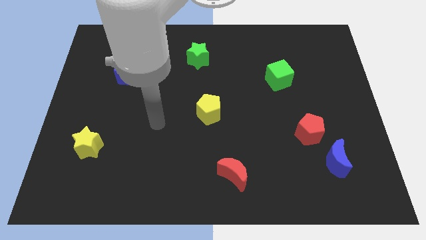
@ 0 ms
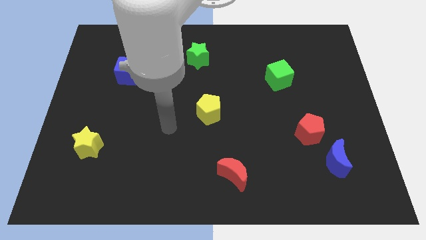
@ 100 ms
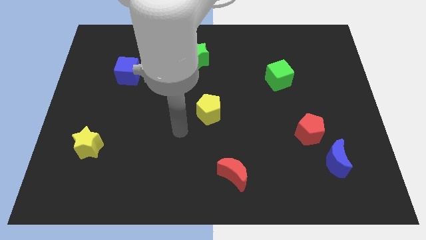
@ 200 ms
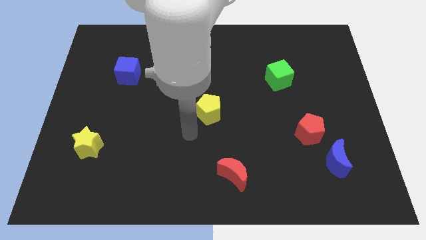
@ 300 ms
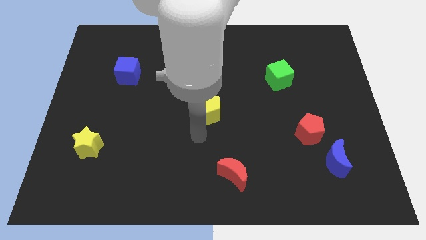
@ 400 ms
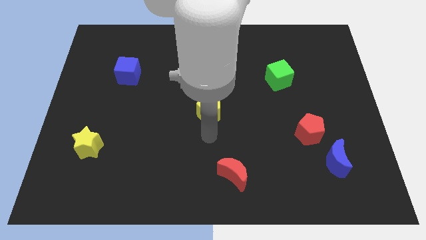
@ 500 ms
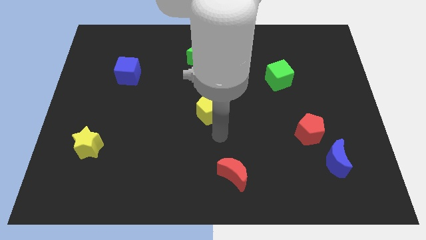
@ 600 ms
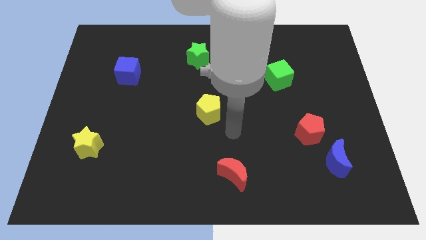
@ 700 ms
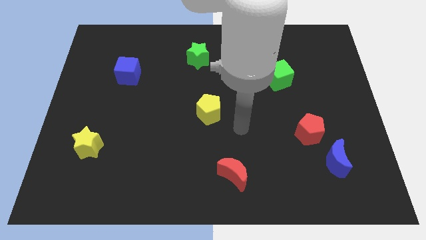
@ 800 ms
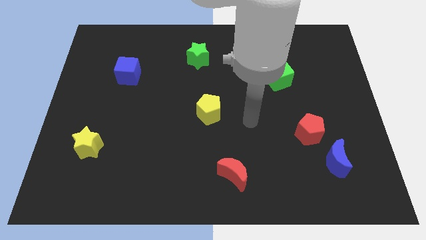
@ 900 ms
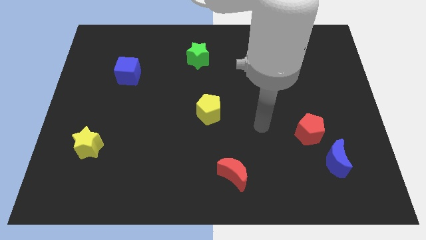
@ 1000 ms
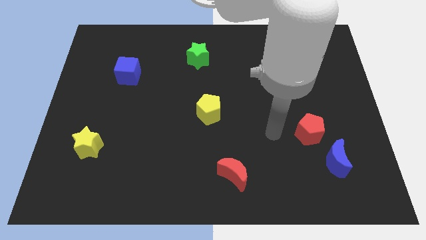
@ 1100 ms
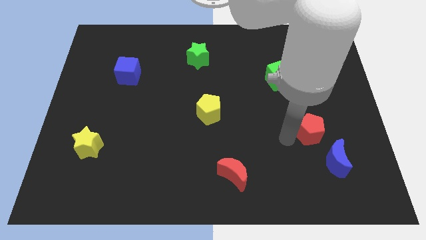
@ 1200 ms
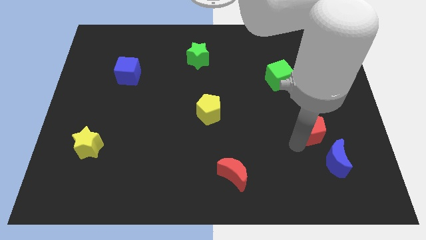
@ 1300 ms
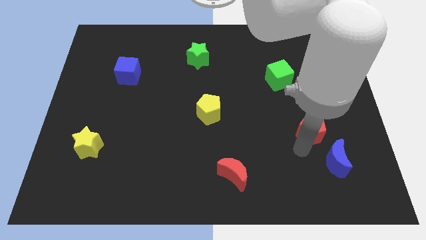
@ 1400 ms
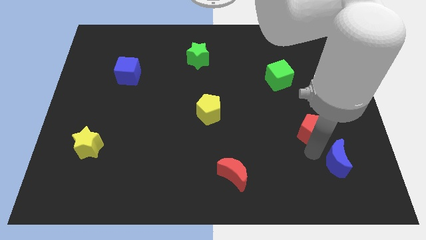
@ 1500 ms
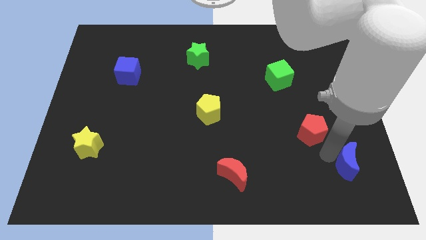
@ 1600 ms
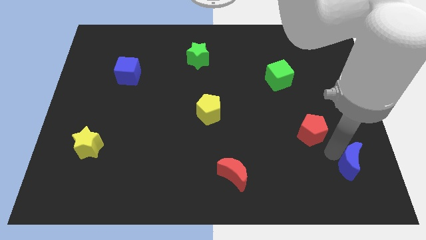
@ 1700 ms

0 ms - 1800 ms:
move the red pentagon away from the blue moon

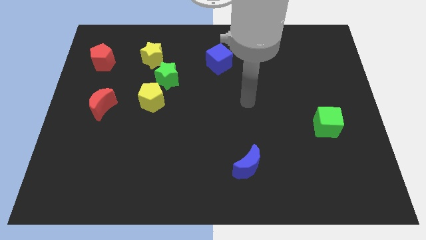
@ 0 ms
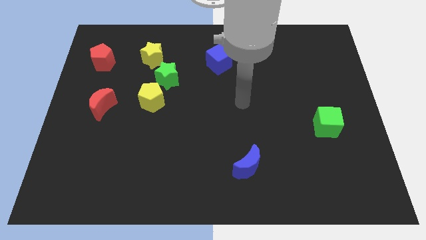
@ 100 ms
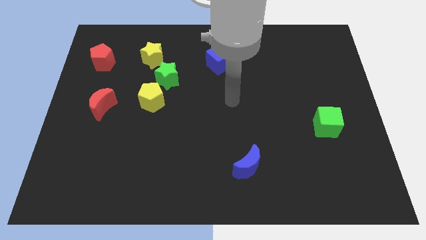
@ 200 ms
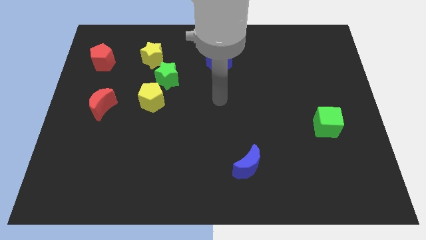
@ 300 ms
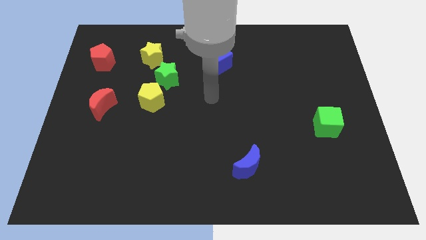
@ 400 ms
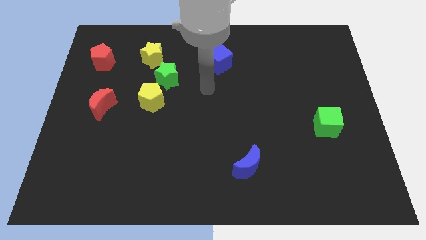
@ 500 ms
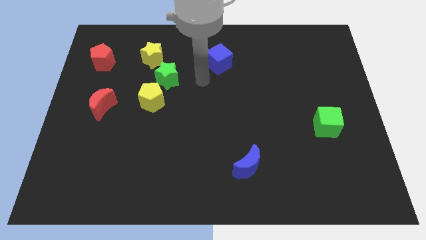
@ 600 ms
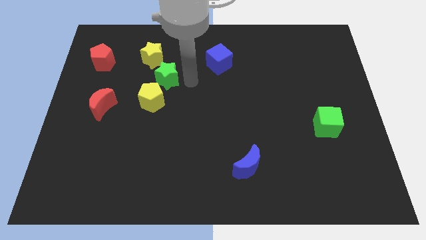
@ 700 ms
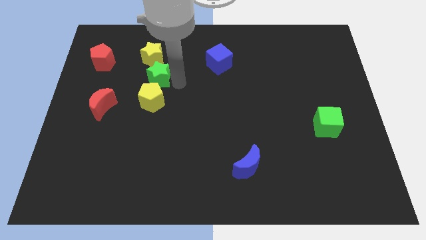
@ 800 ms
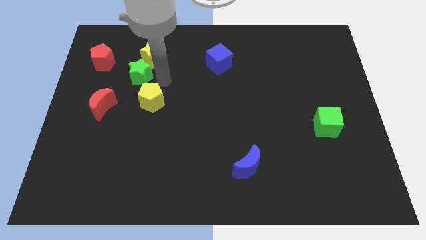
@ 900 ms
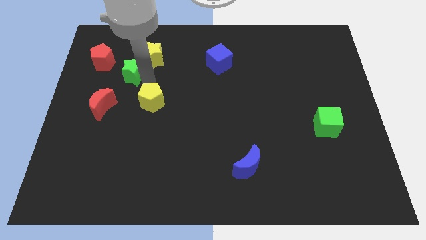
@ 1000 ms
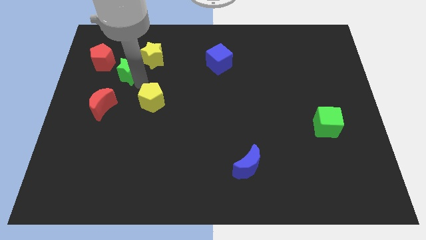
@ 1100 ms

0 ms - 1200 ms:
pull the yellow pentagon apart from the green star

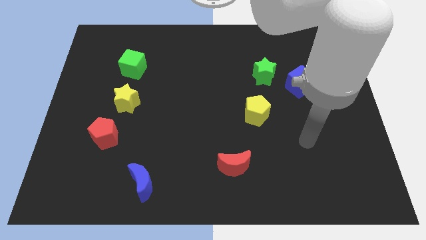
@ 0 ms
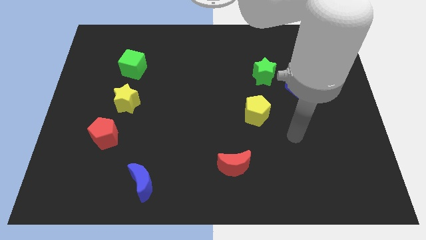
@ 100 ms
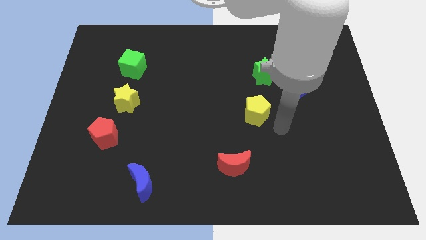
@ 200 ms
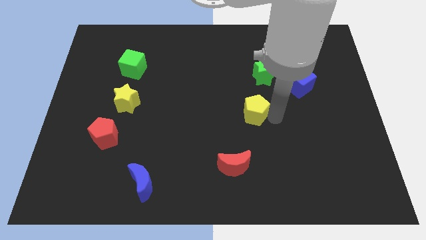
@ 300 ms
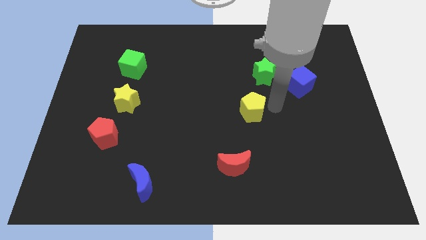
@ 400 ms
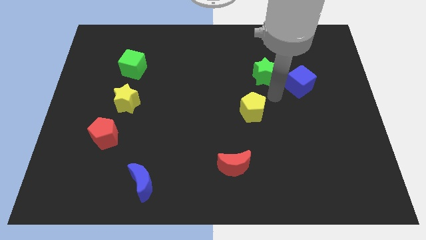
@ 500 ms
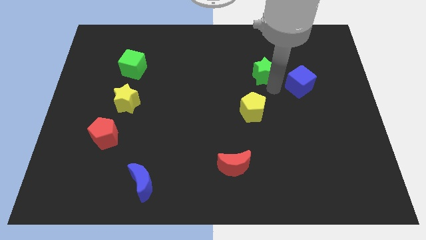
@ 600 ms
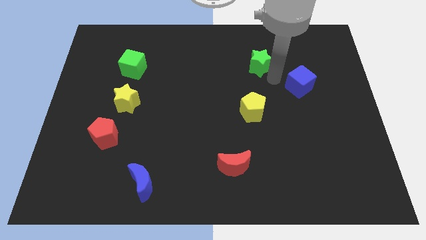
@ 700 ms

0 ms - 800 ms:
pull the blue cube apart from the green star

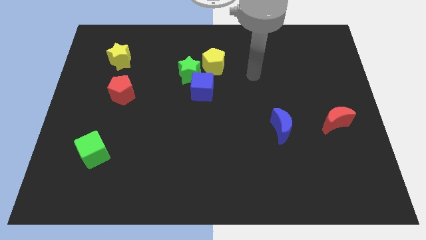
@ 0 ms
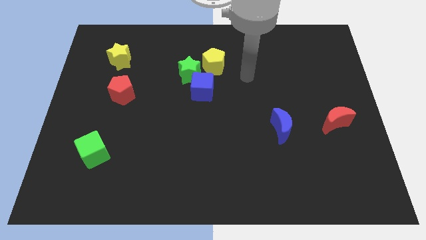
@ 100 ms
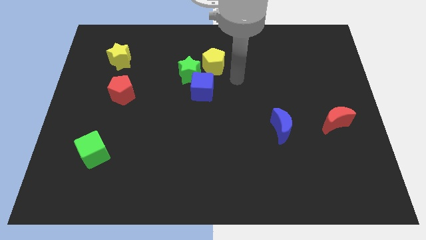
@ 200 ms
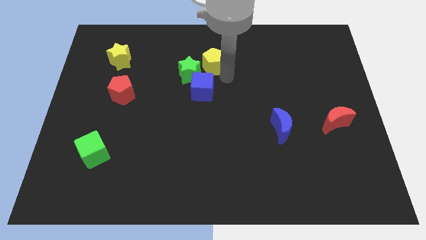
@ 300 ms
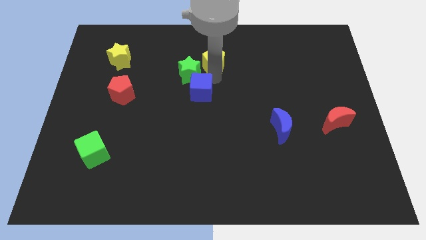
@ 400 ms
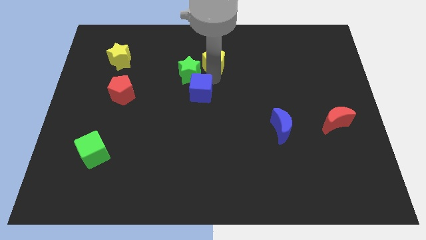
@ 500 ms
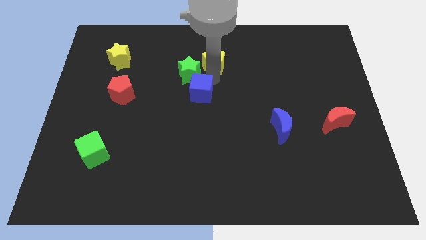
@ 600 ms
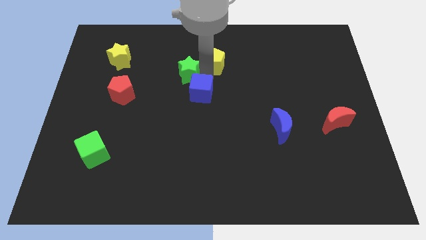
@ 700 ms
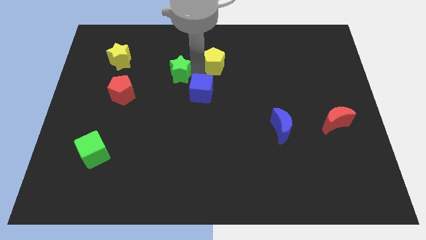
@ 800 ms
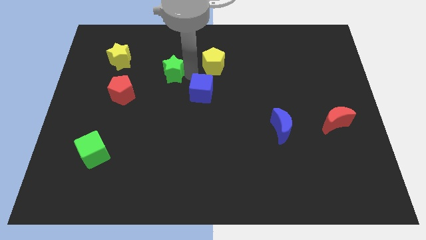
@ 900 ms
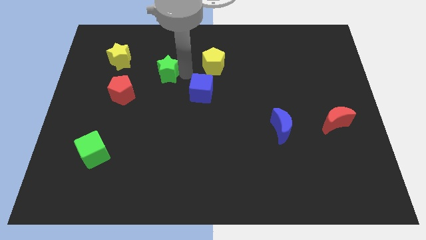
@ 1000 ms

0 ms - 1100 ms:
separate the green star from the blue cube and yellow pentagon

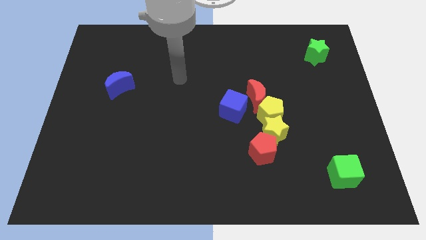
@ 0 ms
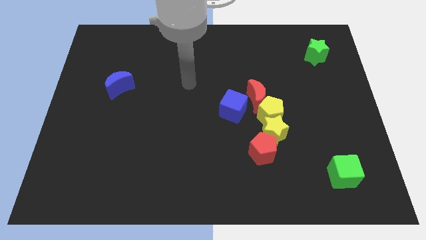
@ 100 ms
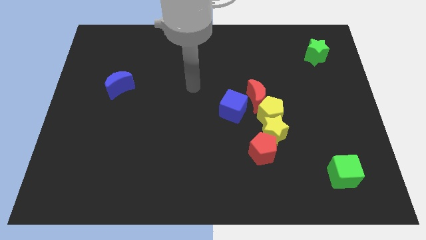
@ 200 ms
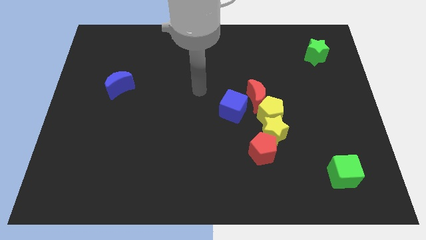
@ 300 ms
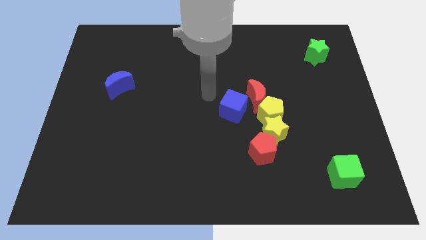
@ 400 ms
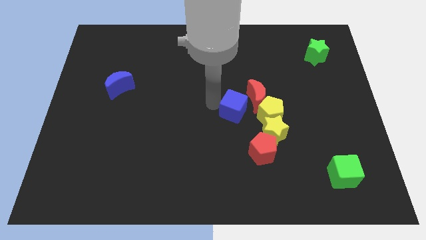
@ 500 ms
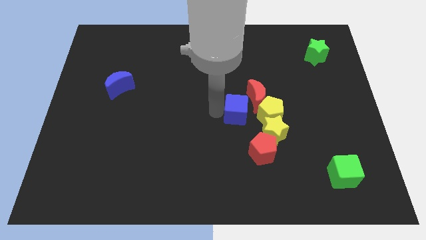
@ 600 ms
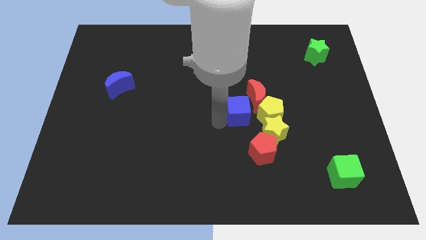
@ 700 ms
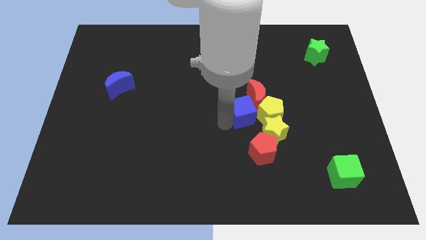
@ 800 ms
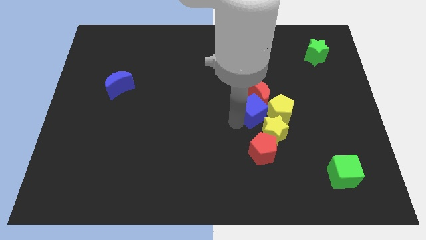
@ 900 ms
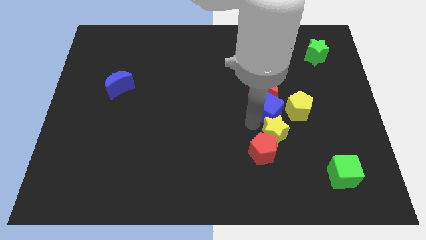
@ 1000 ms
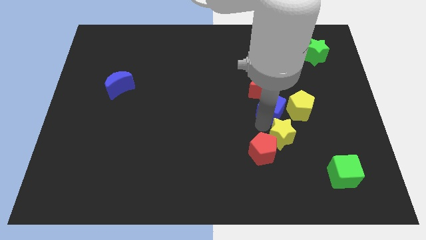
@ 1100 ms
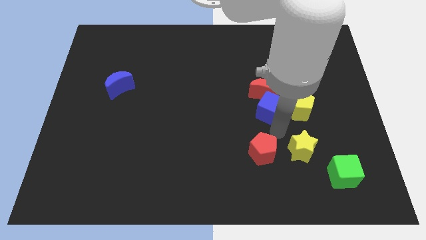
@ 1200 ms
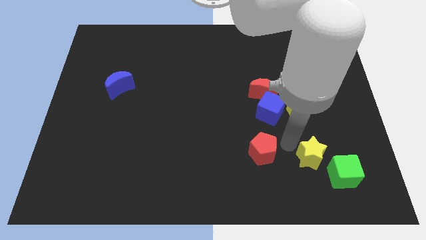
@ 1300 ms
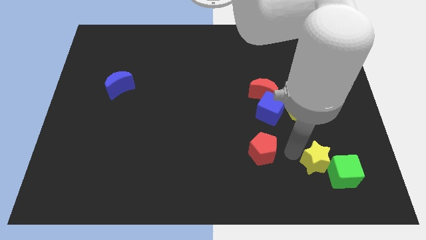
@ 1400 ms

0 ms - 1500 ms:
move the red pentagon away from the yellow star

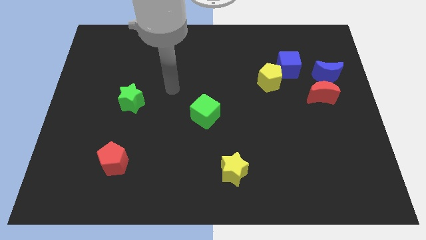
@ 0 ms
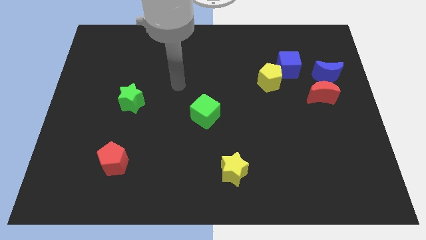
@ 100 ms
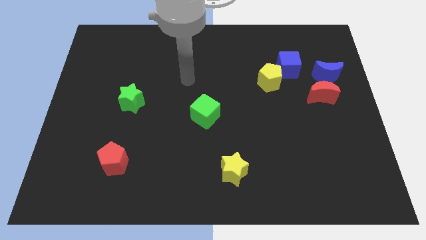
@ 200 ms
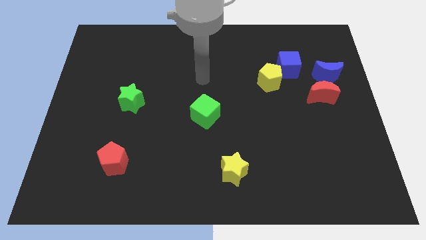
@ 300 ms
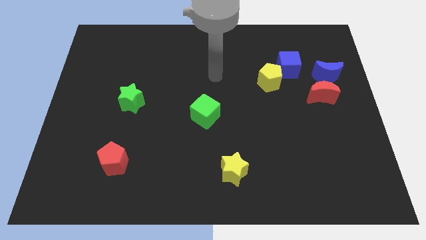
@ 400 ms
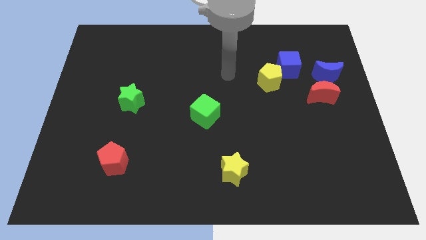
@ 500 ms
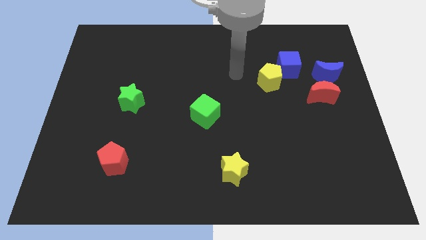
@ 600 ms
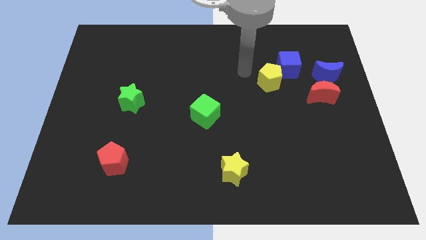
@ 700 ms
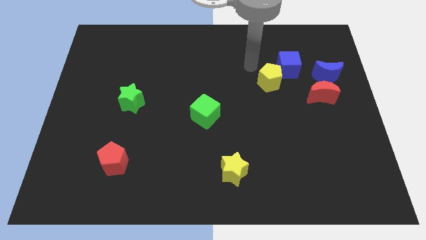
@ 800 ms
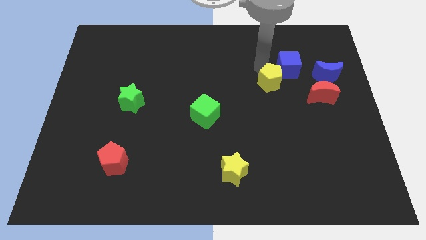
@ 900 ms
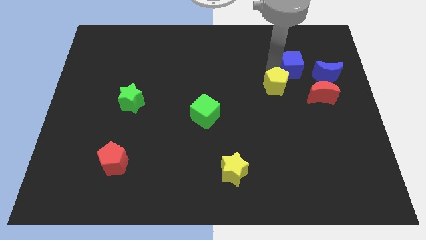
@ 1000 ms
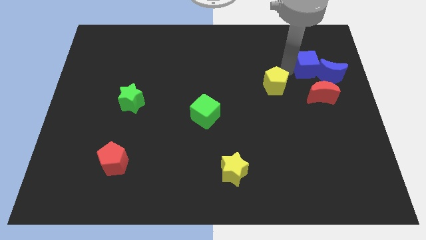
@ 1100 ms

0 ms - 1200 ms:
move the yellow pentagon away from the blue cube

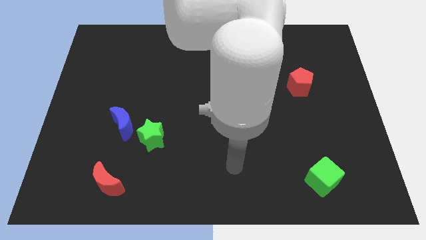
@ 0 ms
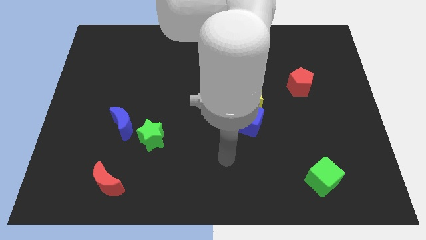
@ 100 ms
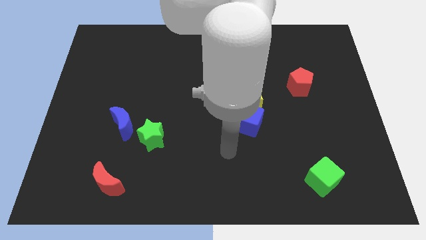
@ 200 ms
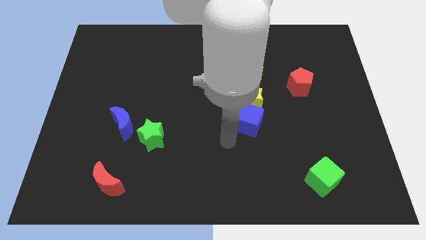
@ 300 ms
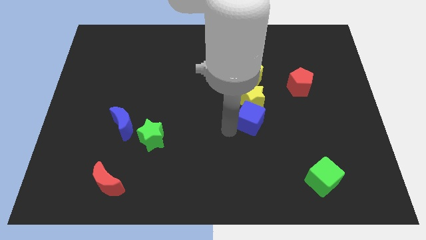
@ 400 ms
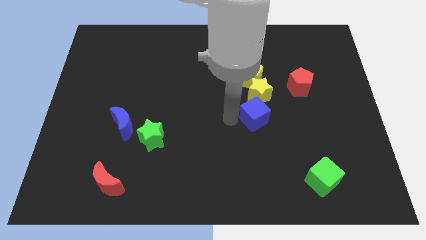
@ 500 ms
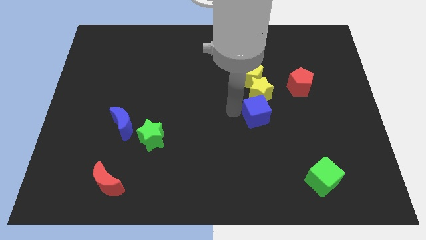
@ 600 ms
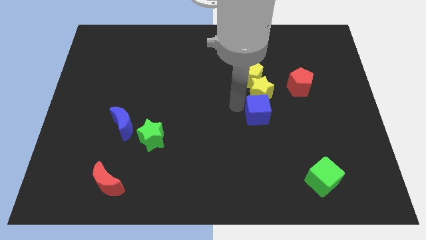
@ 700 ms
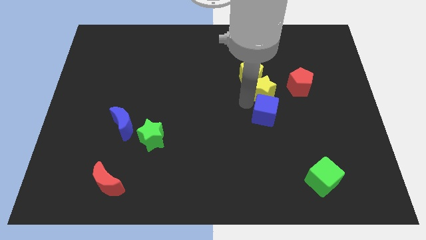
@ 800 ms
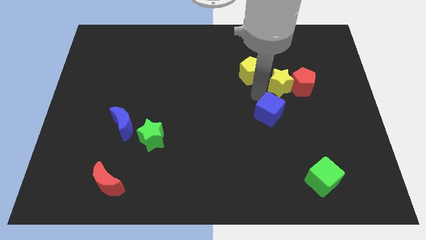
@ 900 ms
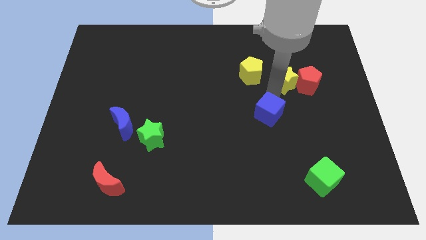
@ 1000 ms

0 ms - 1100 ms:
separate the blue cube from the yellow star

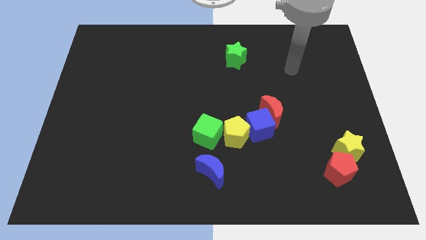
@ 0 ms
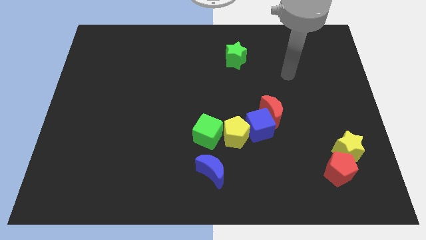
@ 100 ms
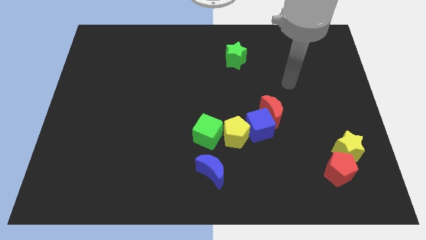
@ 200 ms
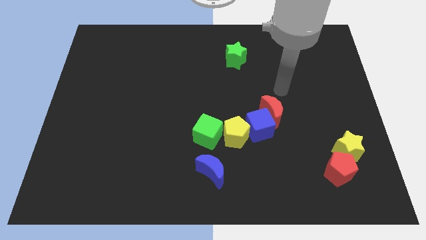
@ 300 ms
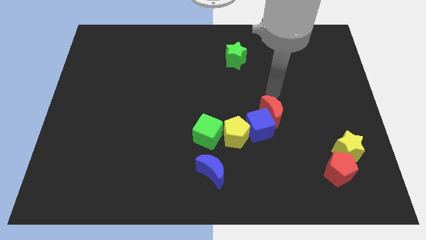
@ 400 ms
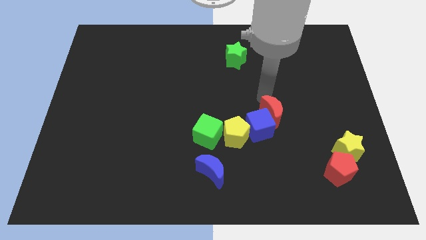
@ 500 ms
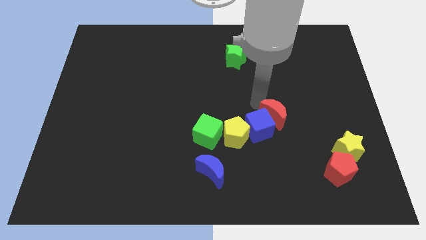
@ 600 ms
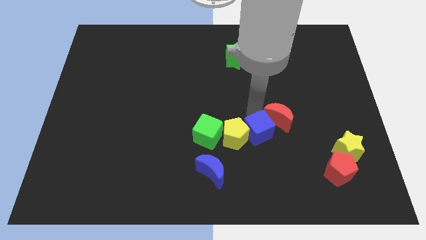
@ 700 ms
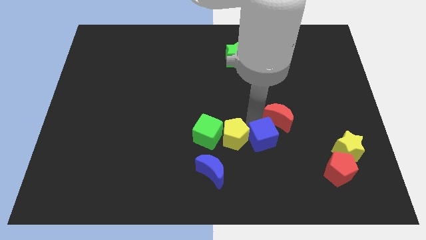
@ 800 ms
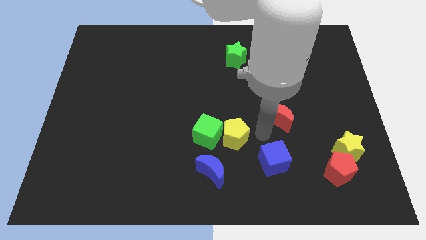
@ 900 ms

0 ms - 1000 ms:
separate the red moon from the blue cube
